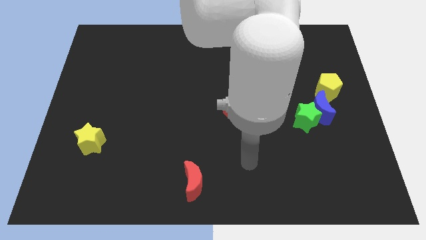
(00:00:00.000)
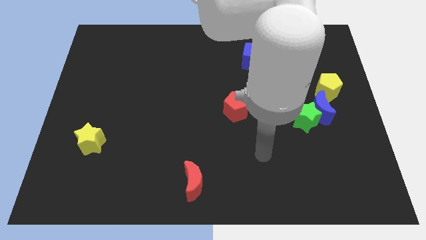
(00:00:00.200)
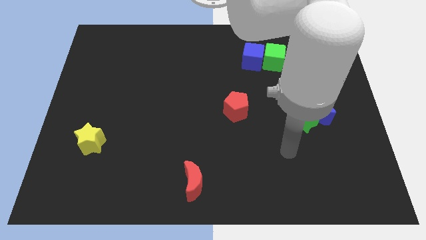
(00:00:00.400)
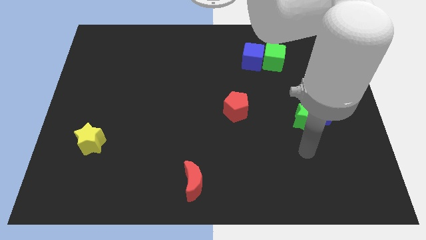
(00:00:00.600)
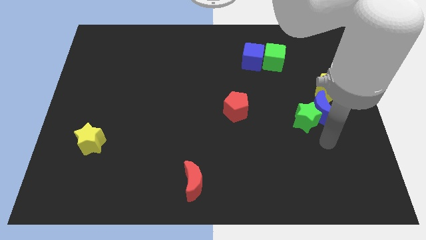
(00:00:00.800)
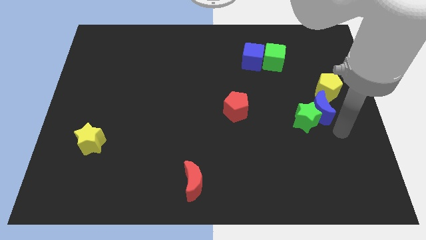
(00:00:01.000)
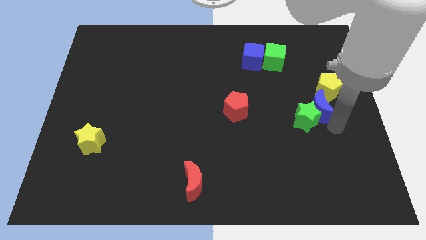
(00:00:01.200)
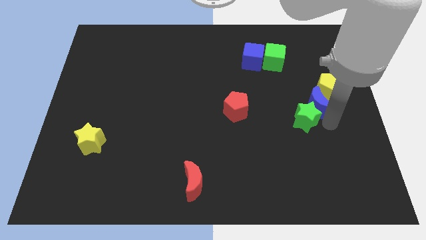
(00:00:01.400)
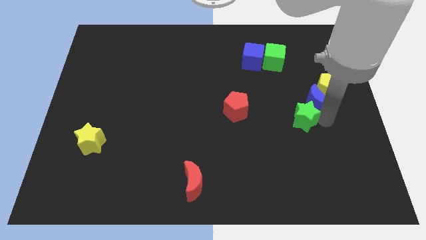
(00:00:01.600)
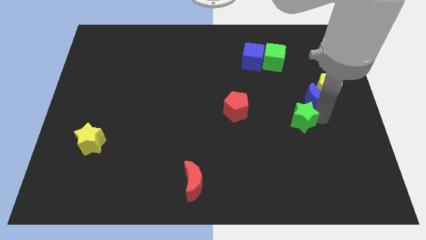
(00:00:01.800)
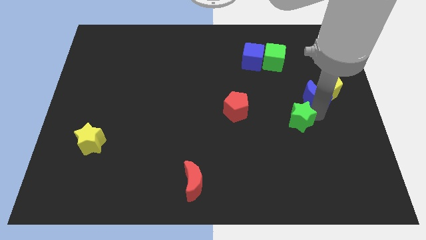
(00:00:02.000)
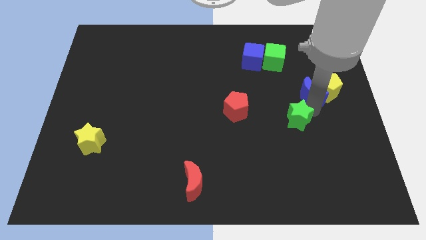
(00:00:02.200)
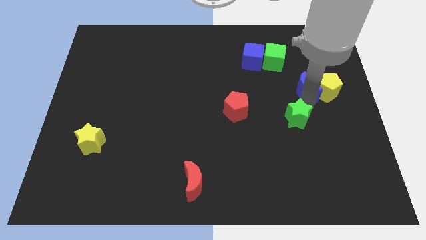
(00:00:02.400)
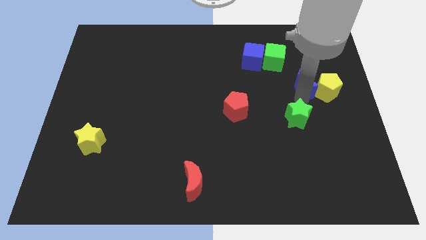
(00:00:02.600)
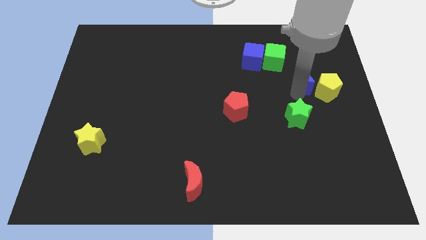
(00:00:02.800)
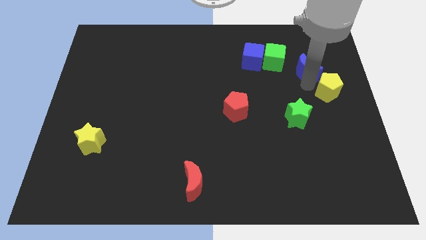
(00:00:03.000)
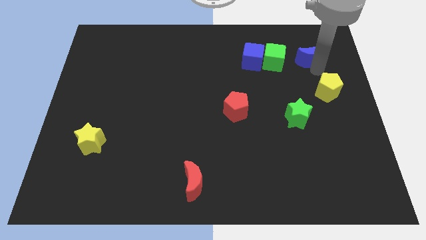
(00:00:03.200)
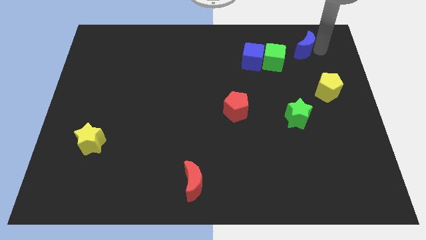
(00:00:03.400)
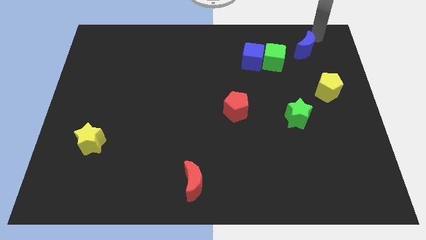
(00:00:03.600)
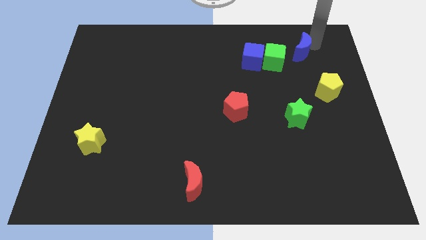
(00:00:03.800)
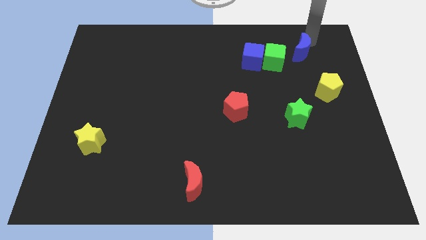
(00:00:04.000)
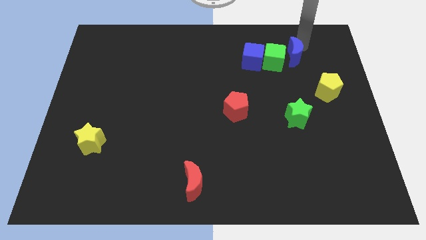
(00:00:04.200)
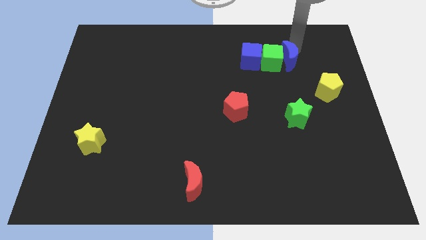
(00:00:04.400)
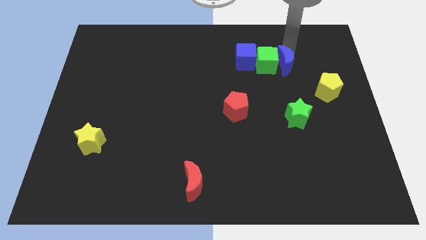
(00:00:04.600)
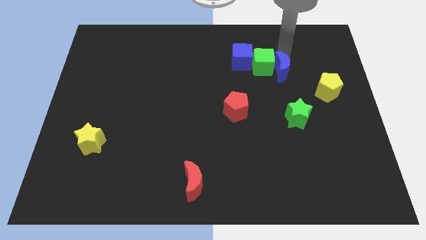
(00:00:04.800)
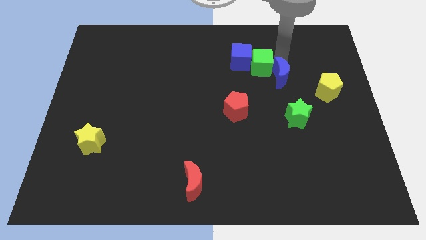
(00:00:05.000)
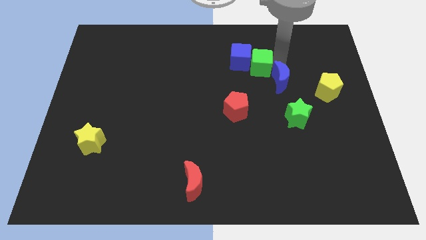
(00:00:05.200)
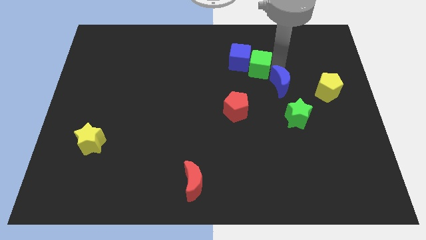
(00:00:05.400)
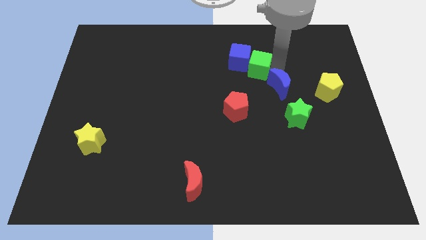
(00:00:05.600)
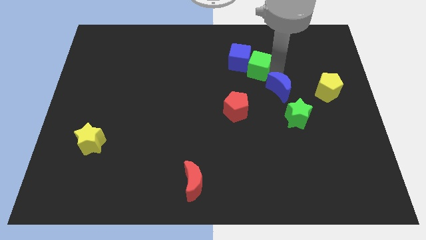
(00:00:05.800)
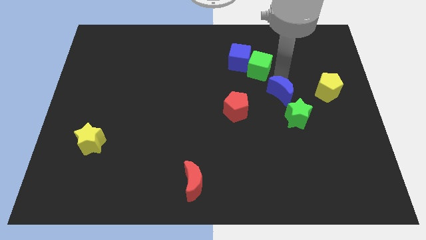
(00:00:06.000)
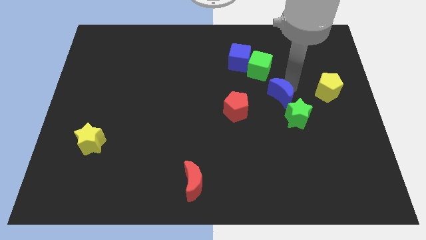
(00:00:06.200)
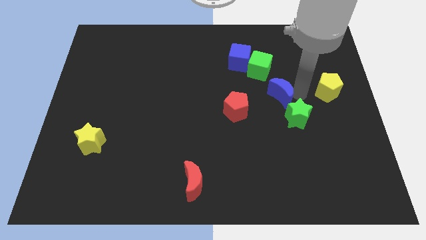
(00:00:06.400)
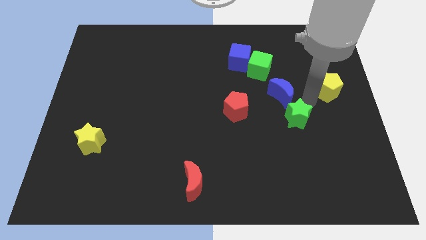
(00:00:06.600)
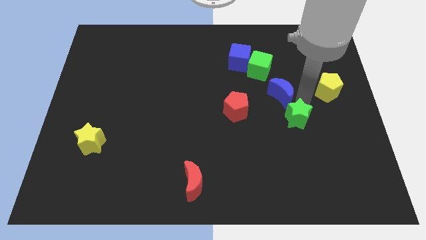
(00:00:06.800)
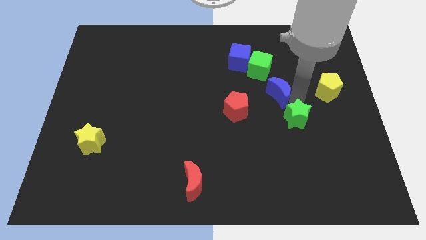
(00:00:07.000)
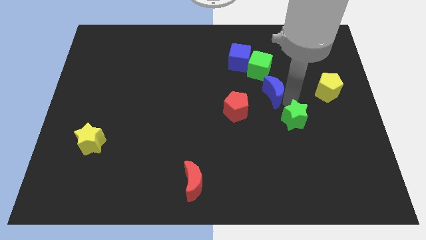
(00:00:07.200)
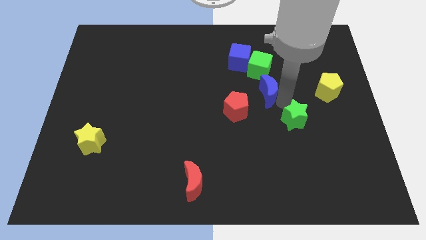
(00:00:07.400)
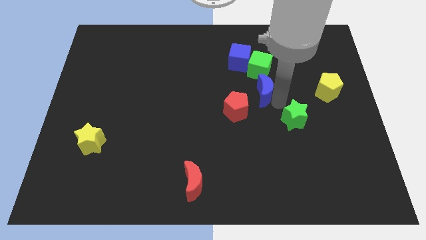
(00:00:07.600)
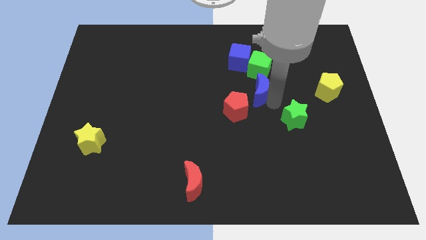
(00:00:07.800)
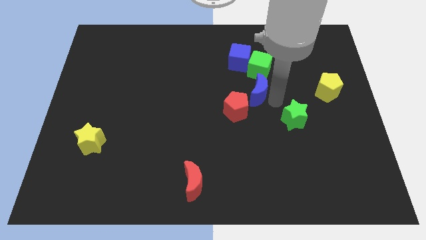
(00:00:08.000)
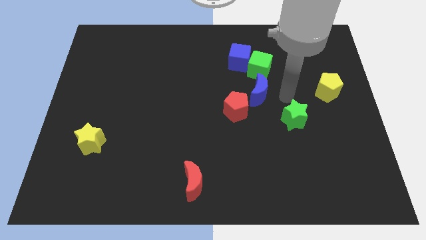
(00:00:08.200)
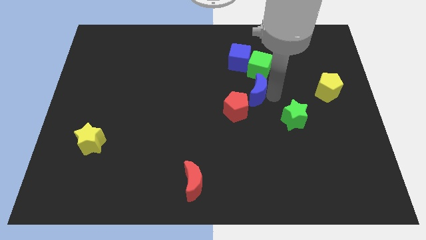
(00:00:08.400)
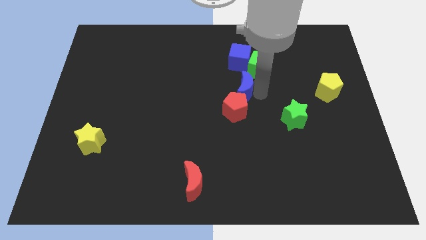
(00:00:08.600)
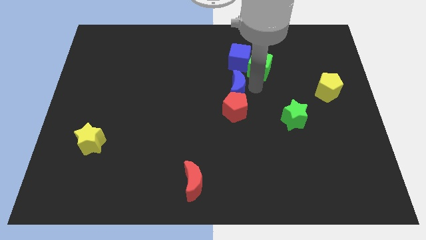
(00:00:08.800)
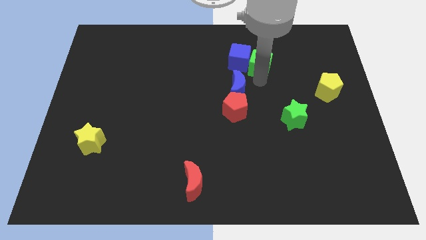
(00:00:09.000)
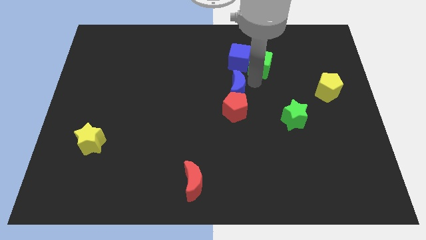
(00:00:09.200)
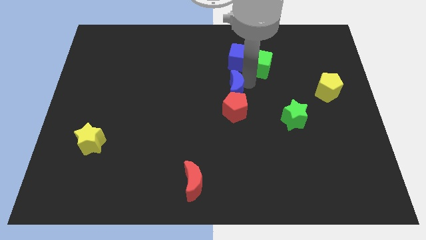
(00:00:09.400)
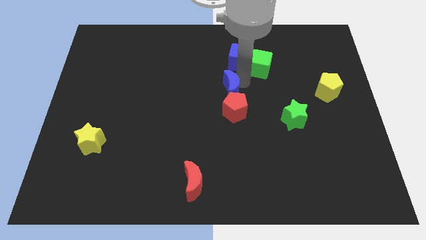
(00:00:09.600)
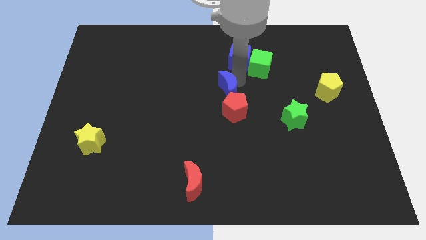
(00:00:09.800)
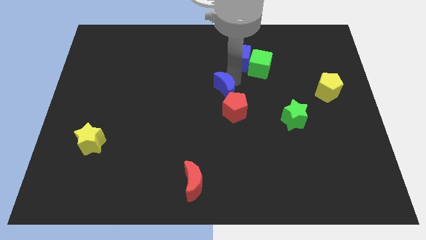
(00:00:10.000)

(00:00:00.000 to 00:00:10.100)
push the blue moon left

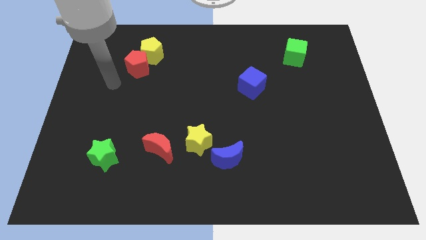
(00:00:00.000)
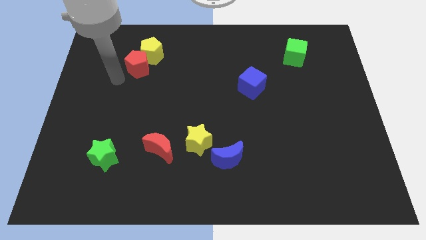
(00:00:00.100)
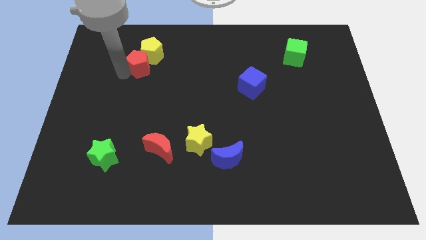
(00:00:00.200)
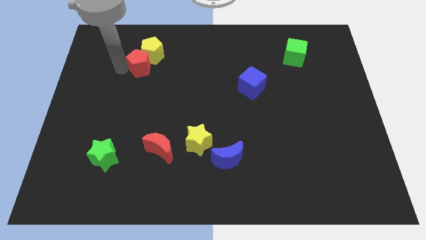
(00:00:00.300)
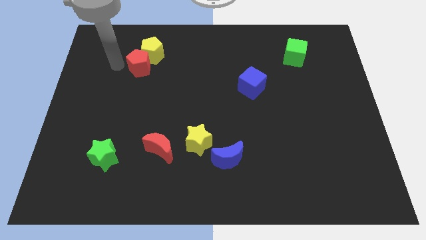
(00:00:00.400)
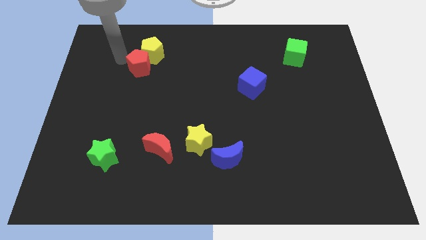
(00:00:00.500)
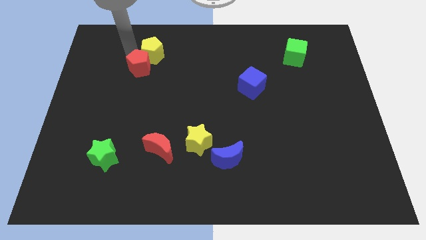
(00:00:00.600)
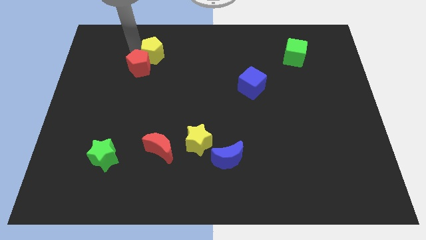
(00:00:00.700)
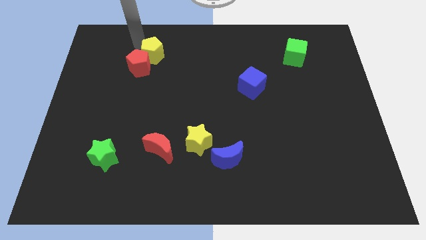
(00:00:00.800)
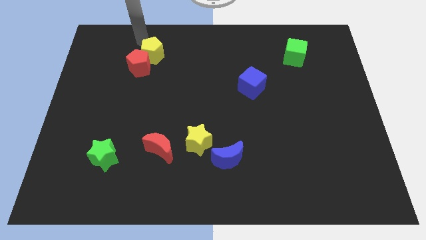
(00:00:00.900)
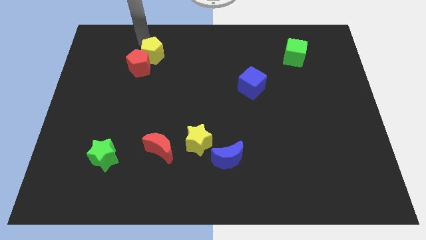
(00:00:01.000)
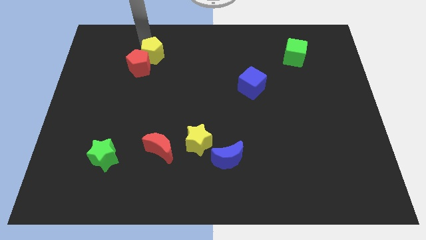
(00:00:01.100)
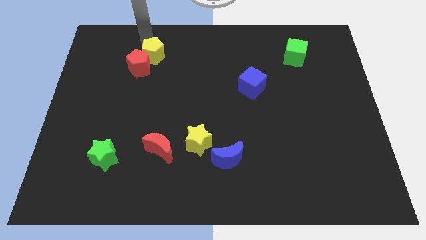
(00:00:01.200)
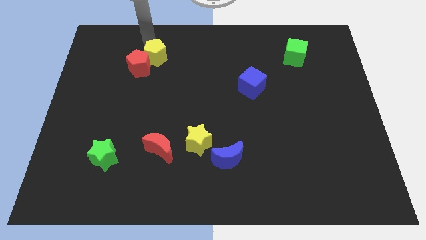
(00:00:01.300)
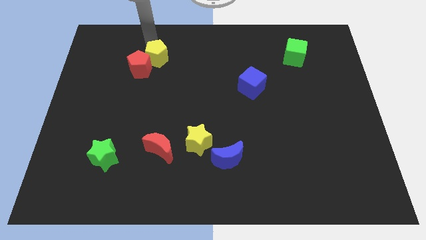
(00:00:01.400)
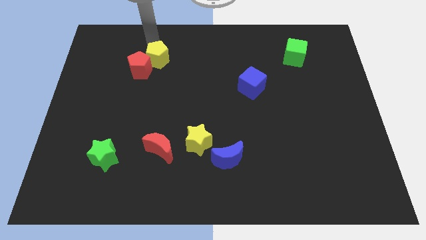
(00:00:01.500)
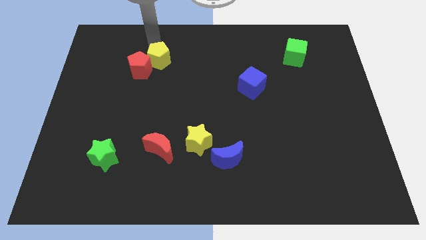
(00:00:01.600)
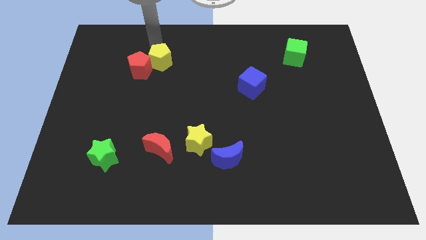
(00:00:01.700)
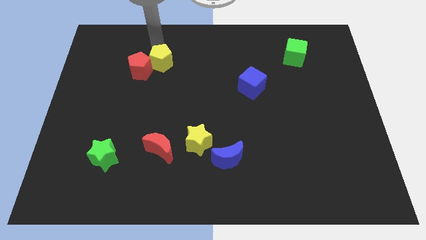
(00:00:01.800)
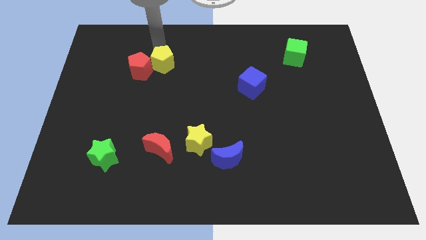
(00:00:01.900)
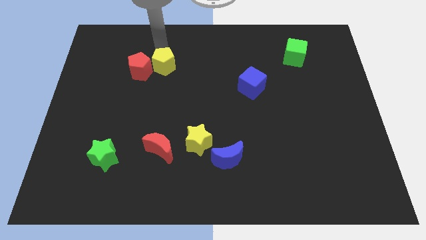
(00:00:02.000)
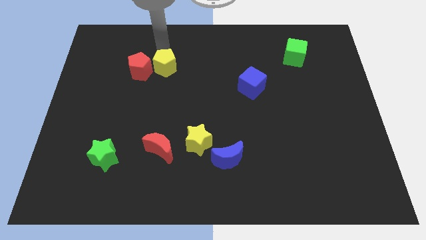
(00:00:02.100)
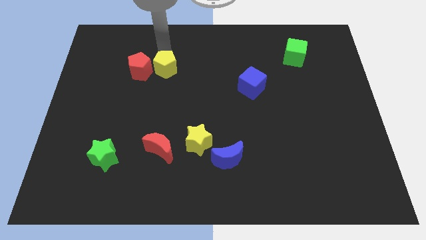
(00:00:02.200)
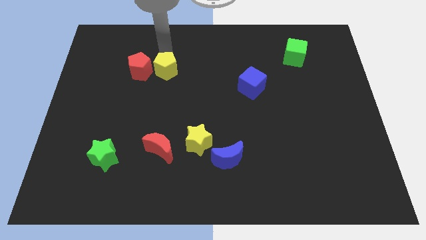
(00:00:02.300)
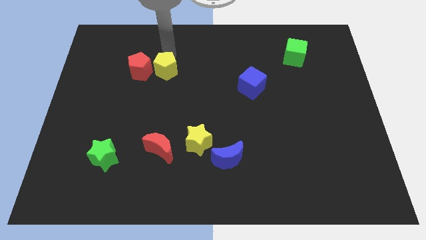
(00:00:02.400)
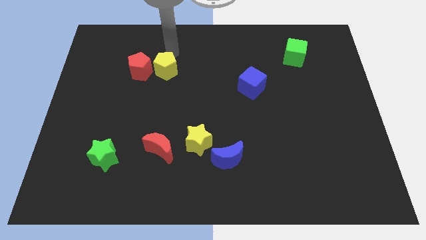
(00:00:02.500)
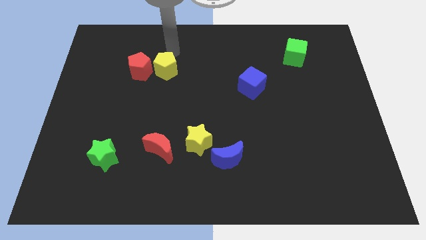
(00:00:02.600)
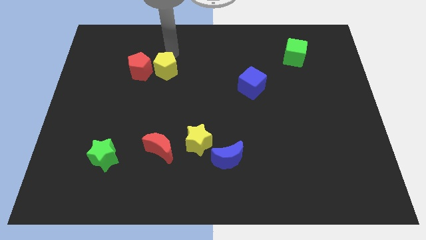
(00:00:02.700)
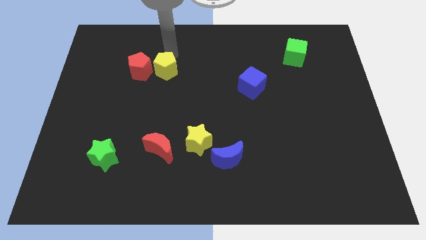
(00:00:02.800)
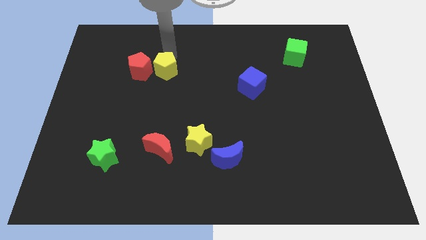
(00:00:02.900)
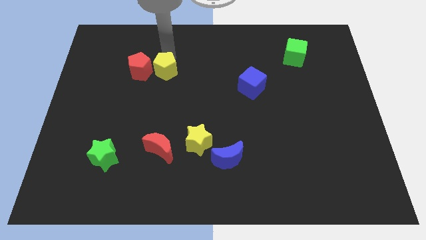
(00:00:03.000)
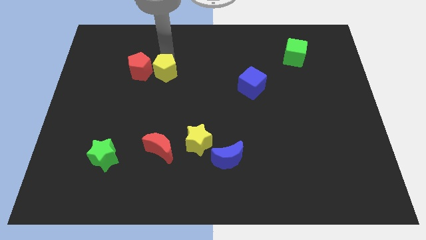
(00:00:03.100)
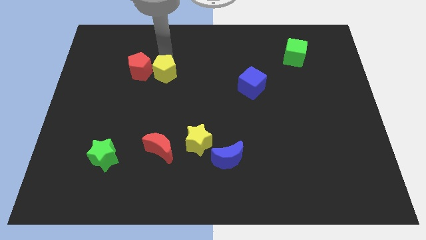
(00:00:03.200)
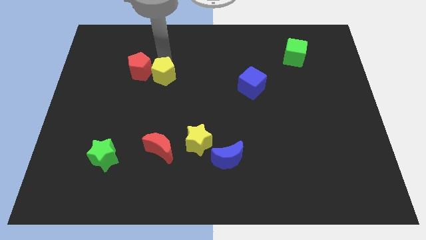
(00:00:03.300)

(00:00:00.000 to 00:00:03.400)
slightly push the yellow pentagon downwards
